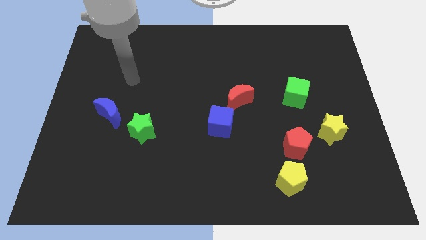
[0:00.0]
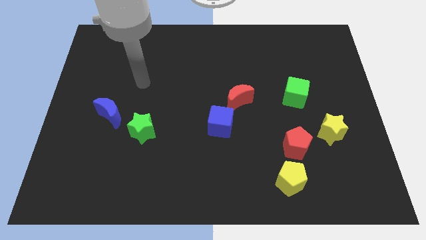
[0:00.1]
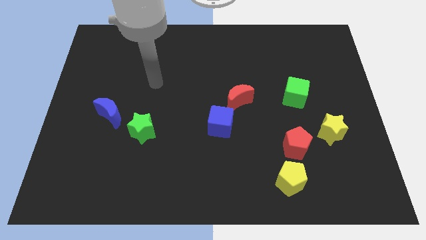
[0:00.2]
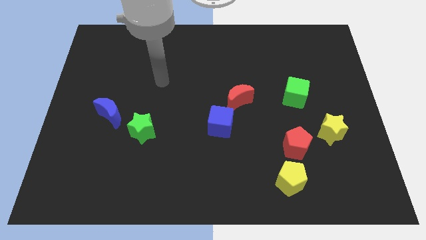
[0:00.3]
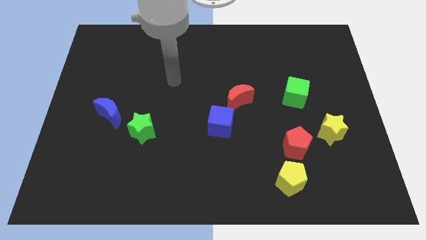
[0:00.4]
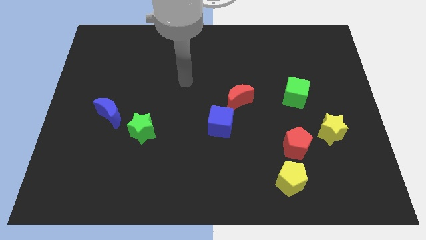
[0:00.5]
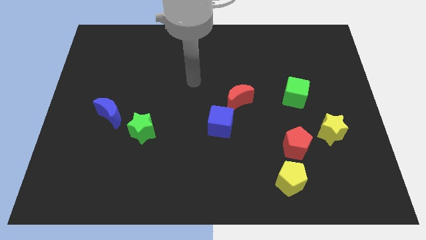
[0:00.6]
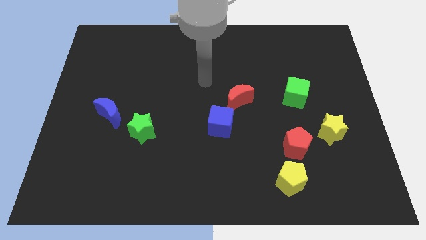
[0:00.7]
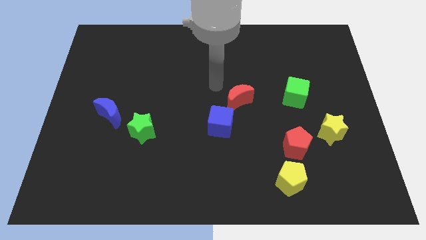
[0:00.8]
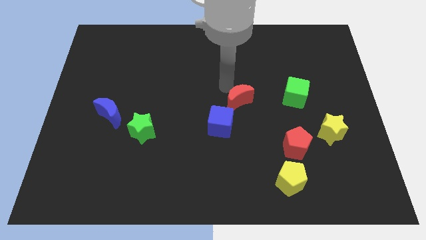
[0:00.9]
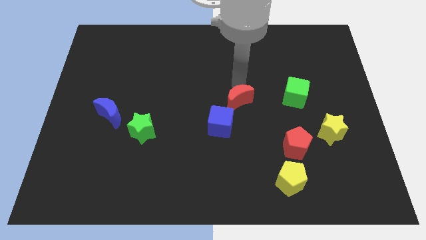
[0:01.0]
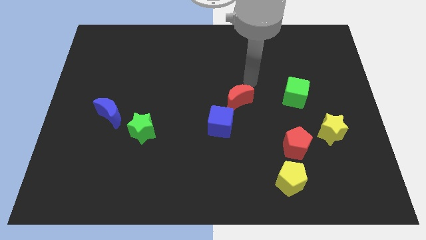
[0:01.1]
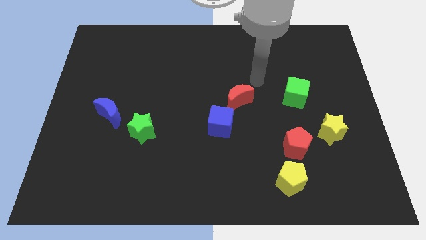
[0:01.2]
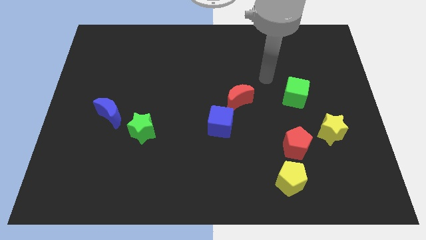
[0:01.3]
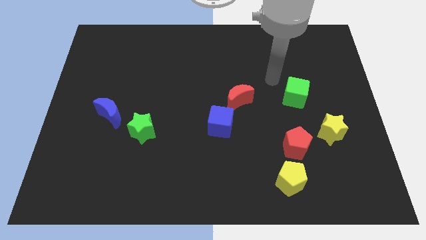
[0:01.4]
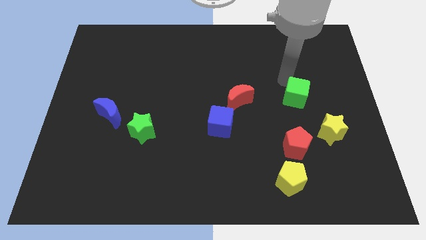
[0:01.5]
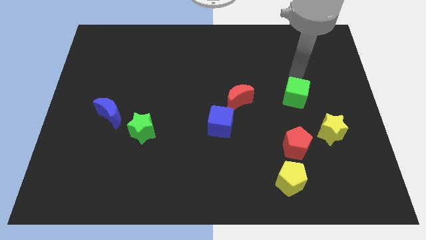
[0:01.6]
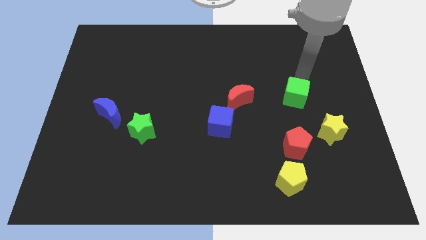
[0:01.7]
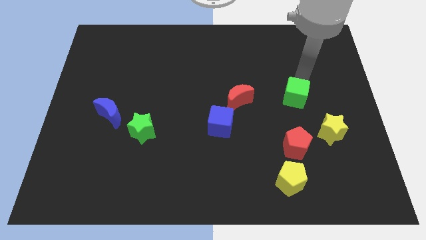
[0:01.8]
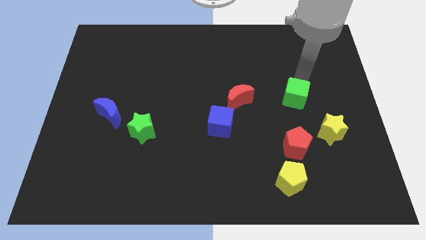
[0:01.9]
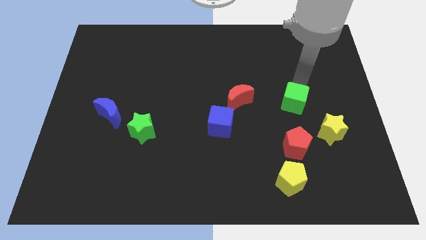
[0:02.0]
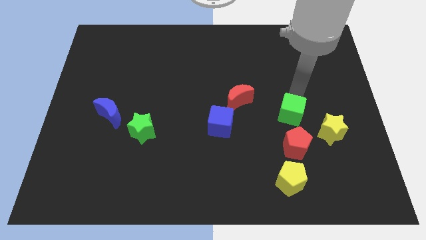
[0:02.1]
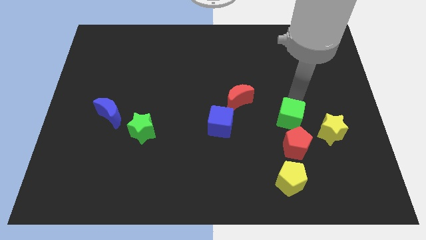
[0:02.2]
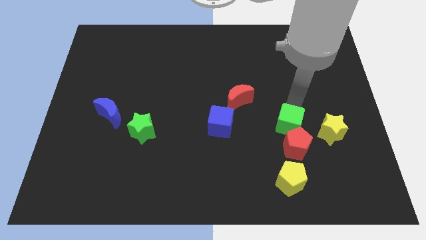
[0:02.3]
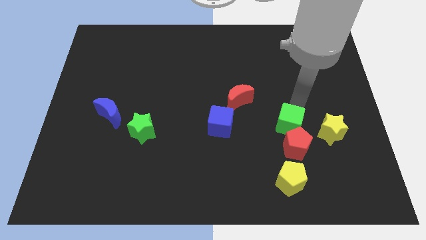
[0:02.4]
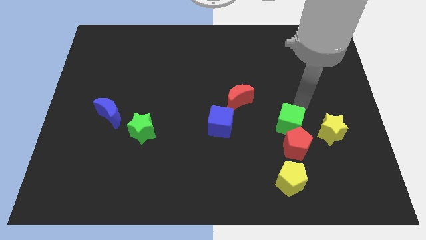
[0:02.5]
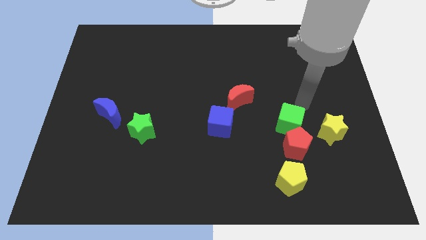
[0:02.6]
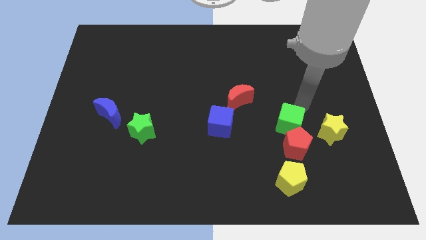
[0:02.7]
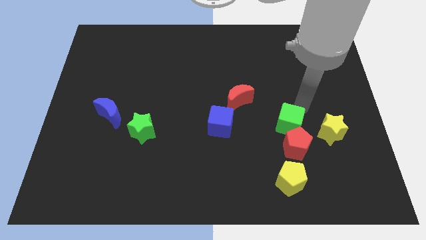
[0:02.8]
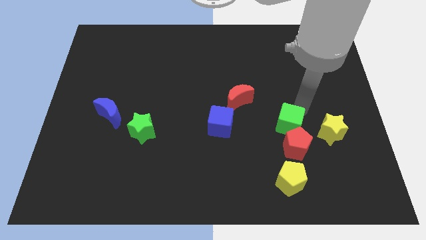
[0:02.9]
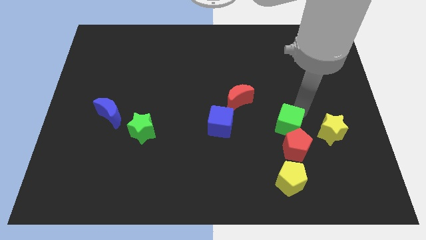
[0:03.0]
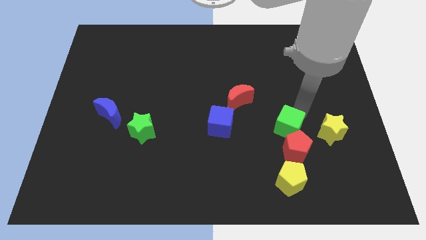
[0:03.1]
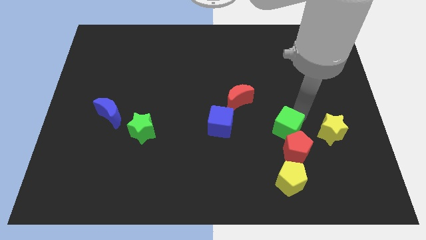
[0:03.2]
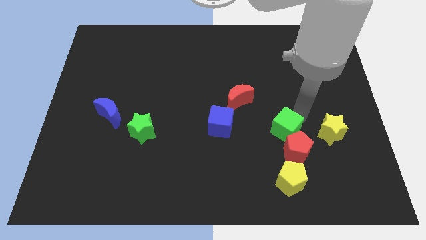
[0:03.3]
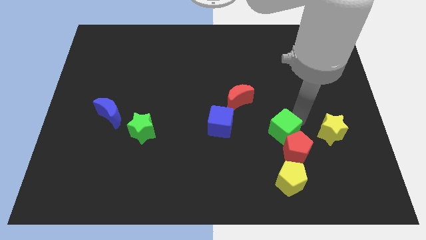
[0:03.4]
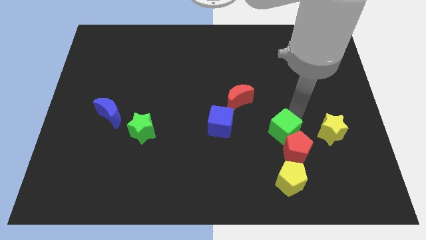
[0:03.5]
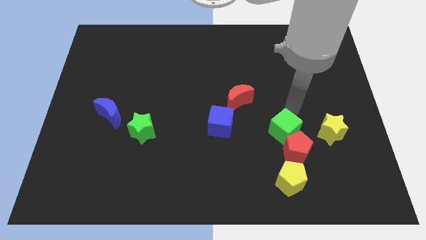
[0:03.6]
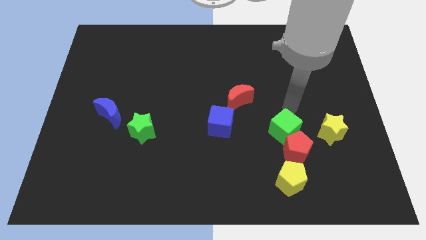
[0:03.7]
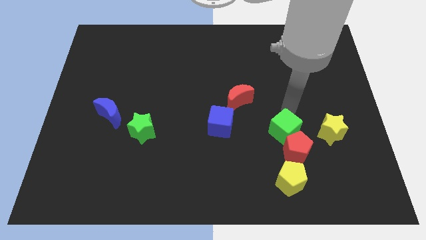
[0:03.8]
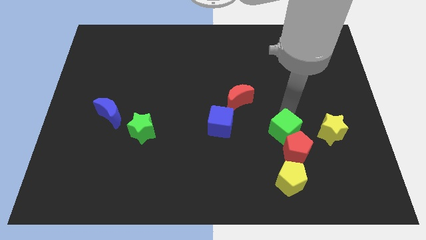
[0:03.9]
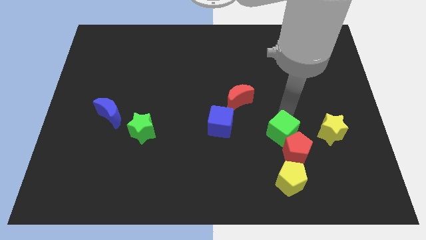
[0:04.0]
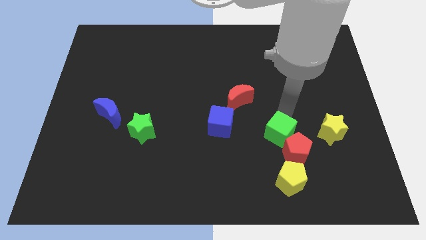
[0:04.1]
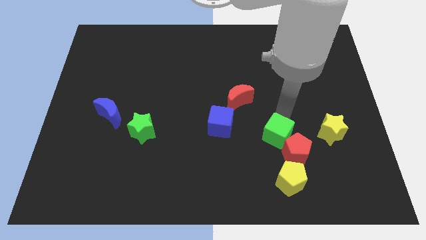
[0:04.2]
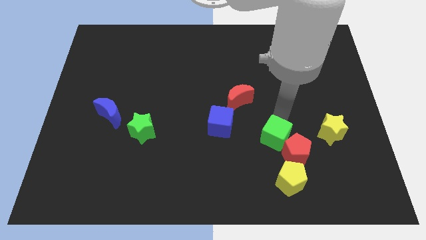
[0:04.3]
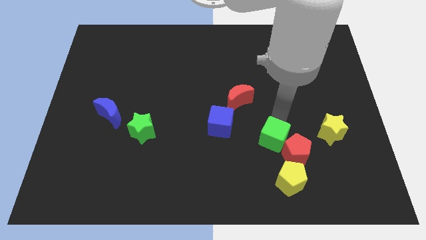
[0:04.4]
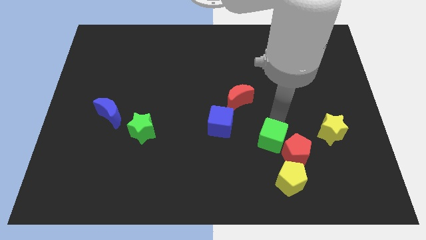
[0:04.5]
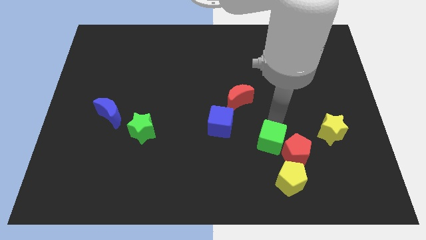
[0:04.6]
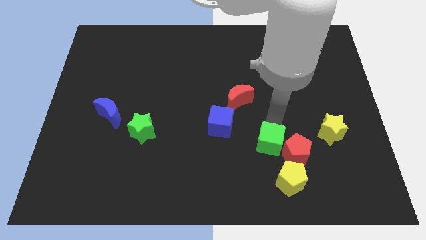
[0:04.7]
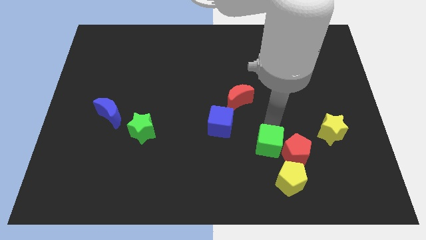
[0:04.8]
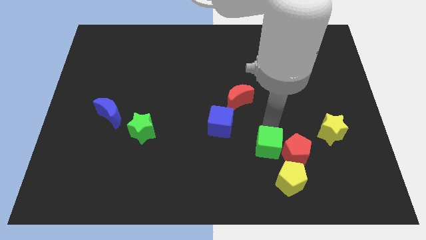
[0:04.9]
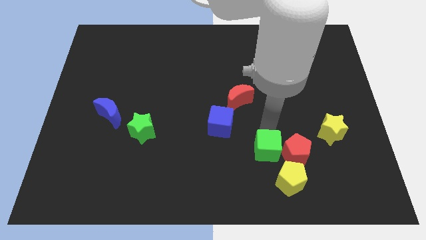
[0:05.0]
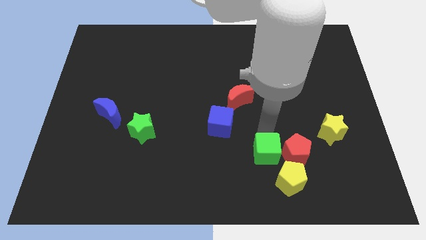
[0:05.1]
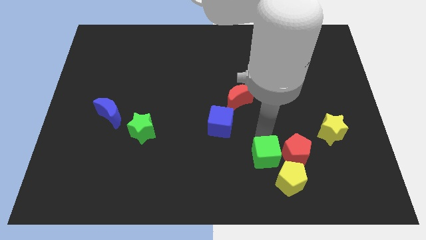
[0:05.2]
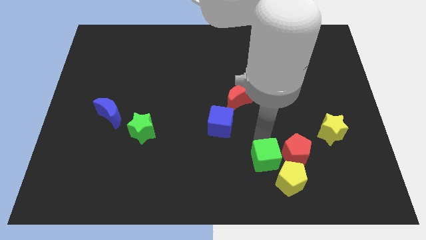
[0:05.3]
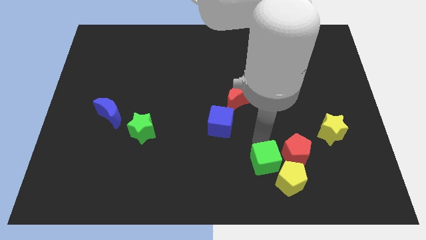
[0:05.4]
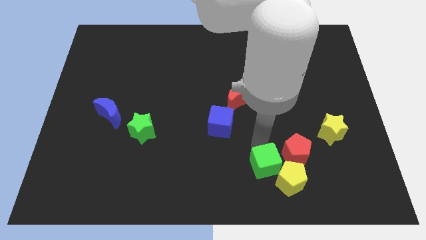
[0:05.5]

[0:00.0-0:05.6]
move the green cube close to the yellow pentagon

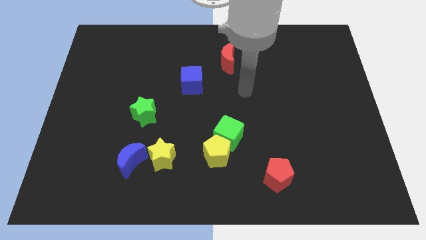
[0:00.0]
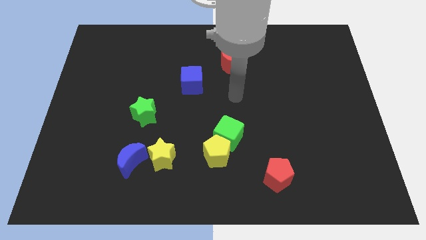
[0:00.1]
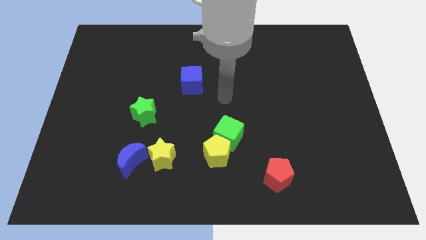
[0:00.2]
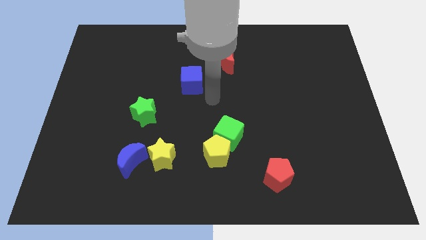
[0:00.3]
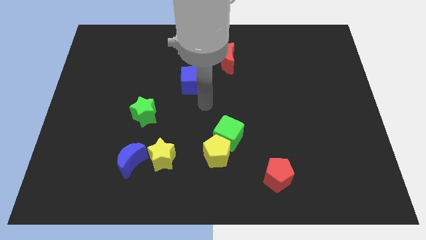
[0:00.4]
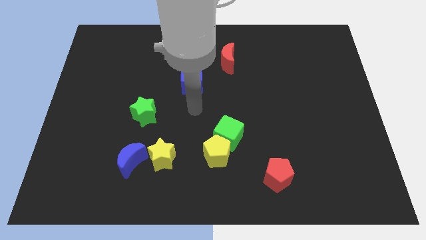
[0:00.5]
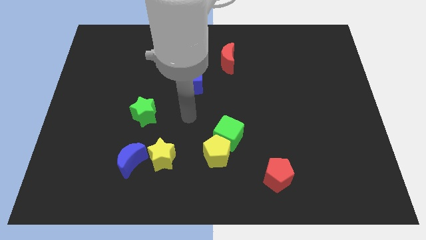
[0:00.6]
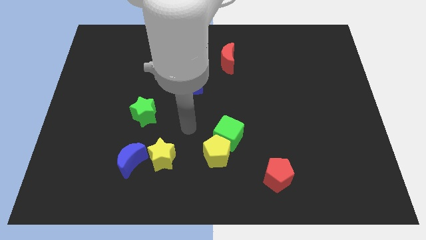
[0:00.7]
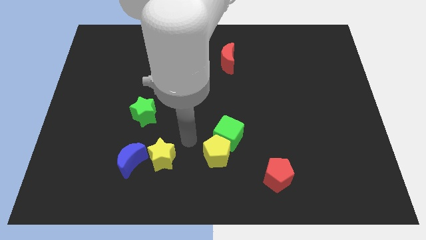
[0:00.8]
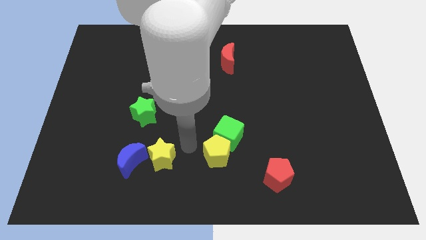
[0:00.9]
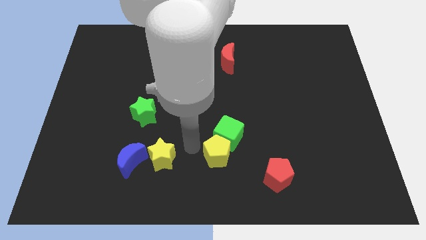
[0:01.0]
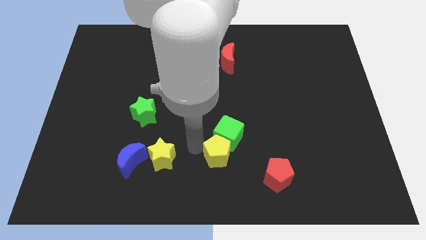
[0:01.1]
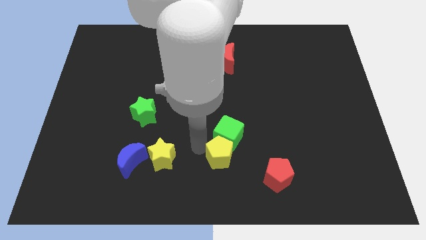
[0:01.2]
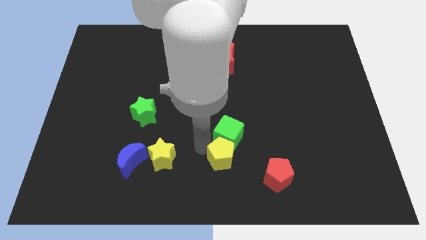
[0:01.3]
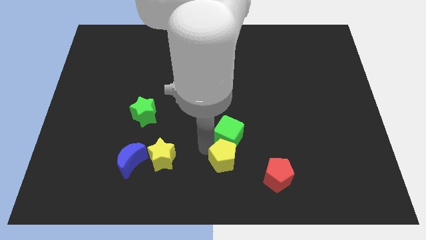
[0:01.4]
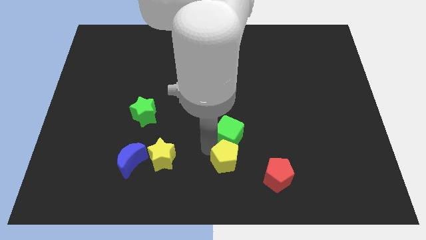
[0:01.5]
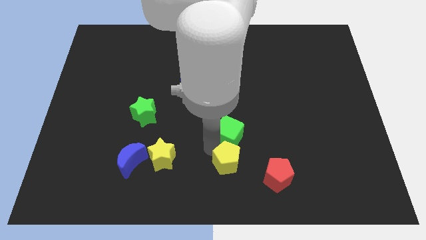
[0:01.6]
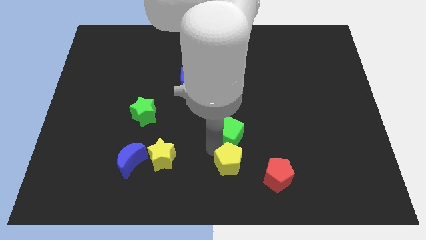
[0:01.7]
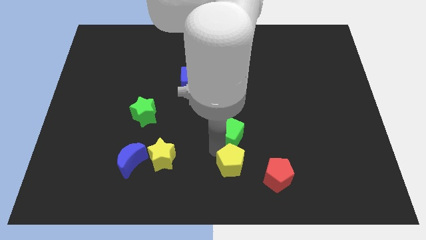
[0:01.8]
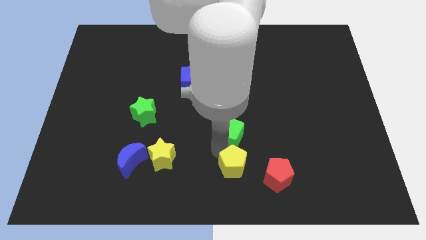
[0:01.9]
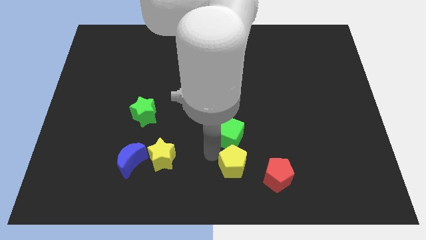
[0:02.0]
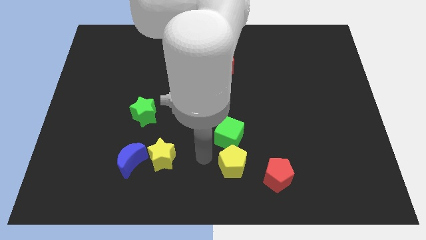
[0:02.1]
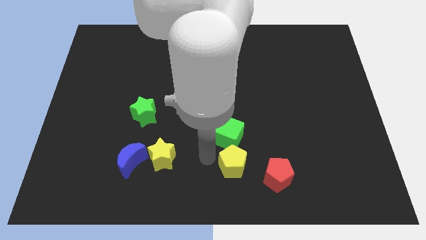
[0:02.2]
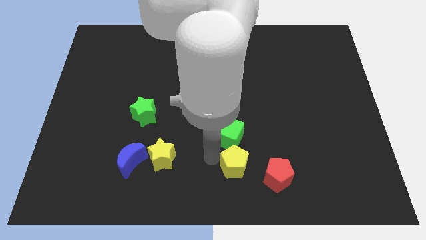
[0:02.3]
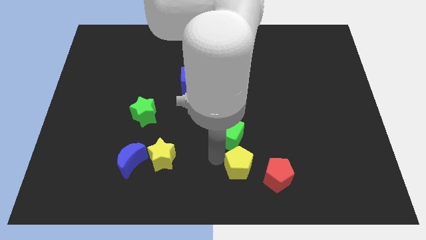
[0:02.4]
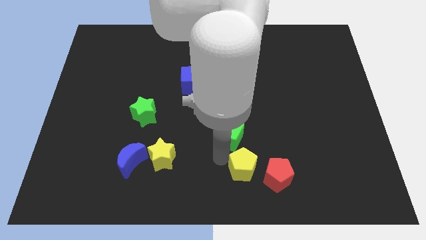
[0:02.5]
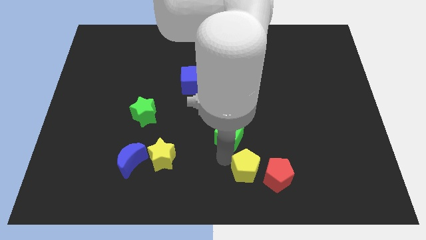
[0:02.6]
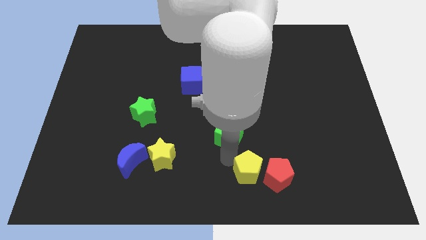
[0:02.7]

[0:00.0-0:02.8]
slide the yellow pentagon towards the red pentagon
